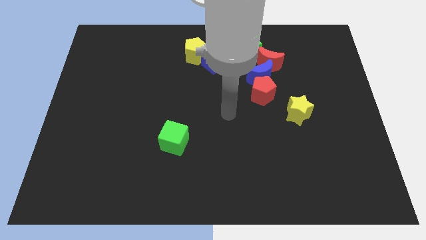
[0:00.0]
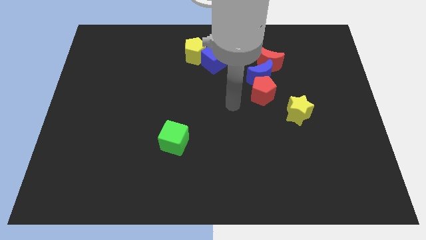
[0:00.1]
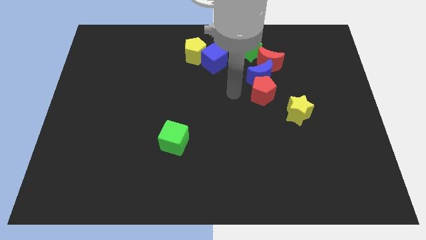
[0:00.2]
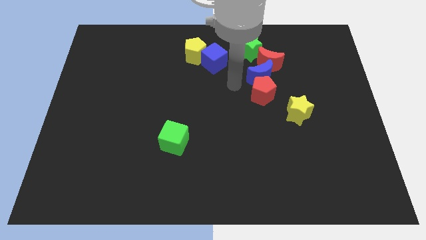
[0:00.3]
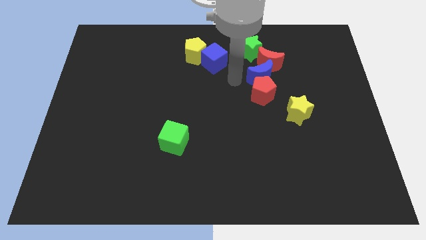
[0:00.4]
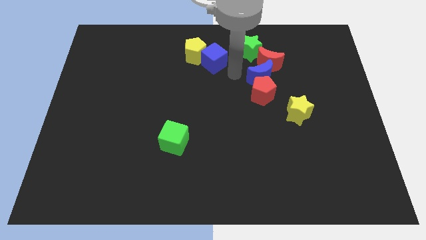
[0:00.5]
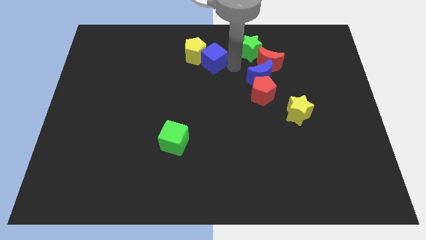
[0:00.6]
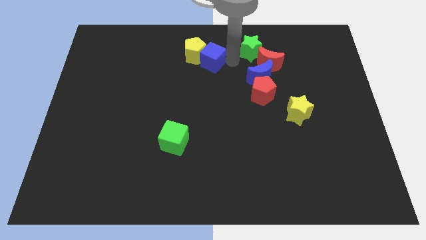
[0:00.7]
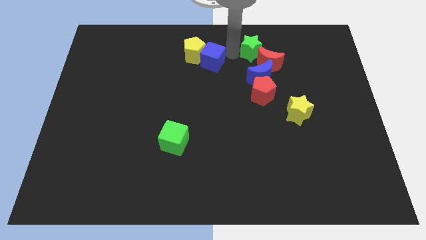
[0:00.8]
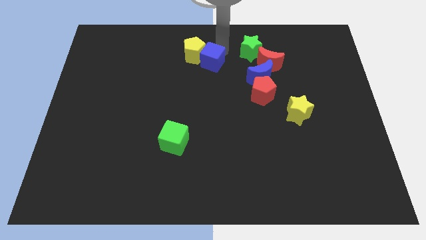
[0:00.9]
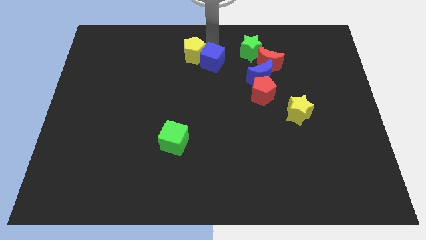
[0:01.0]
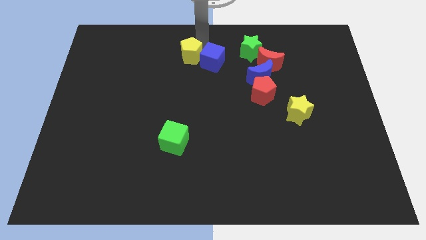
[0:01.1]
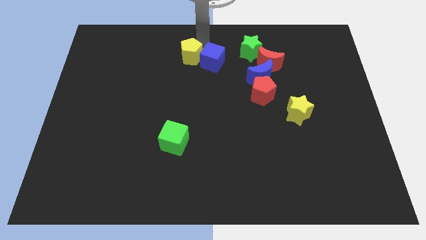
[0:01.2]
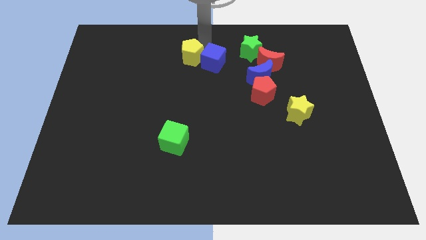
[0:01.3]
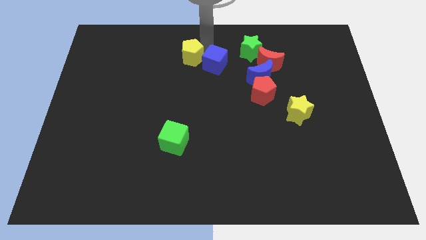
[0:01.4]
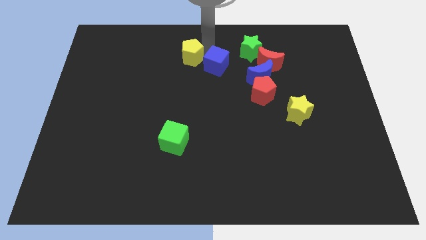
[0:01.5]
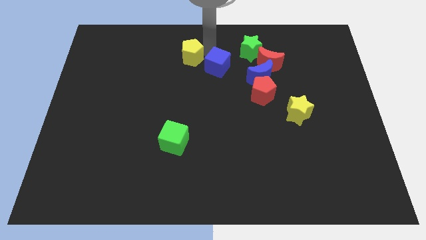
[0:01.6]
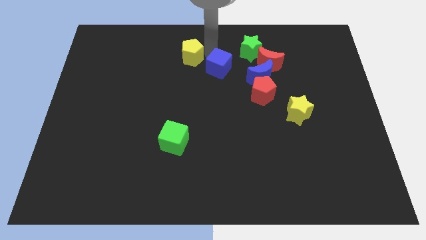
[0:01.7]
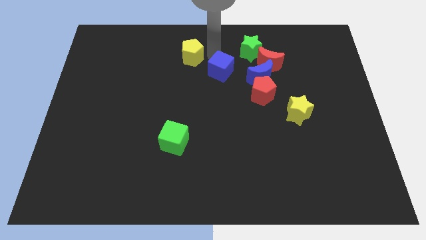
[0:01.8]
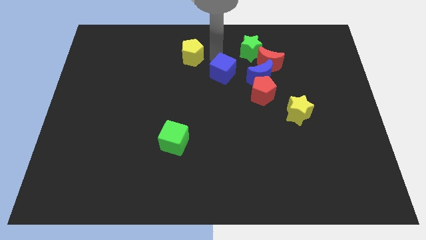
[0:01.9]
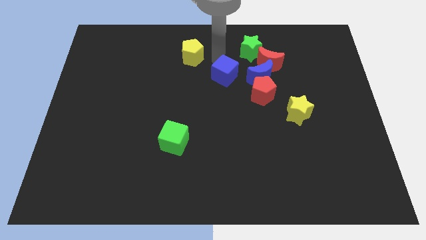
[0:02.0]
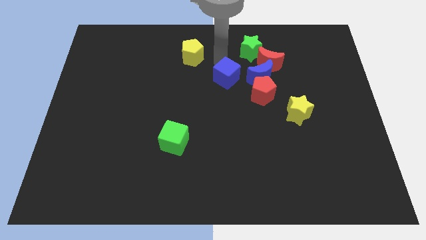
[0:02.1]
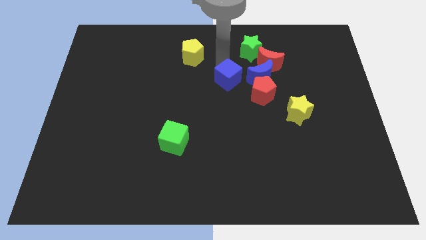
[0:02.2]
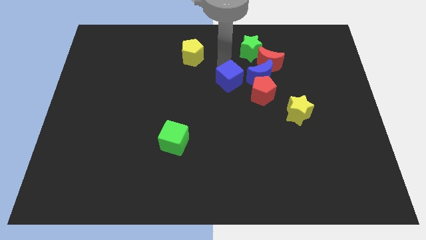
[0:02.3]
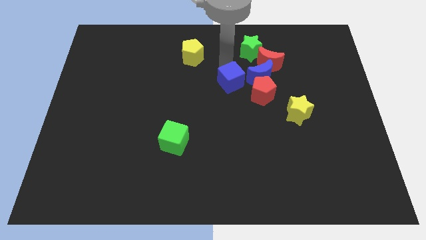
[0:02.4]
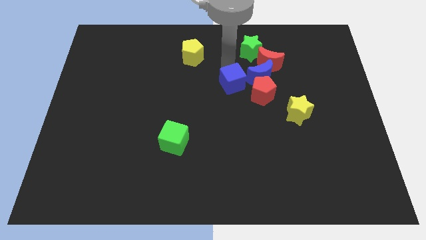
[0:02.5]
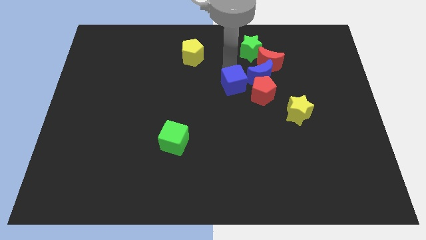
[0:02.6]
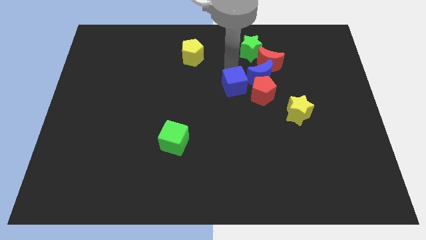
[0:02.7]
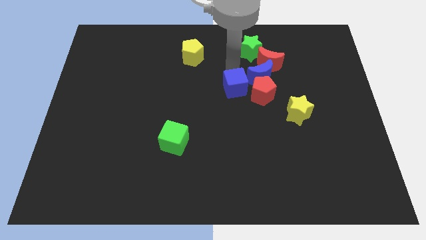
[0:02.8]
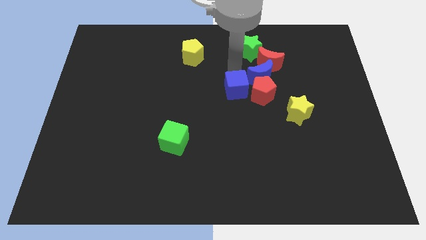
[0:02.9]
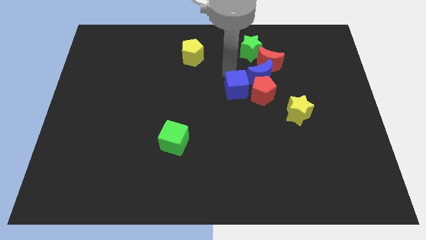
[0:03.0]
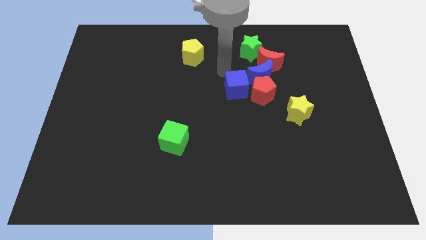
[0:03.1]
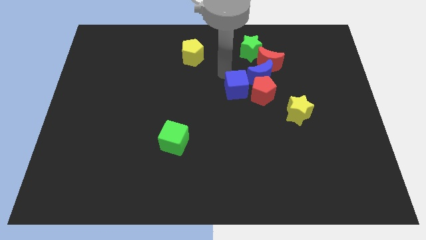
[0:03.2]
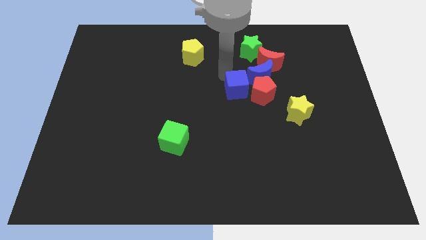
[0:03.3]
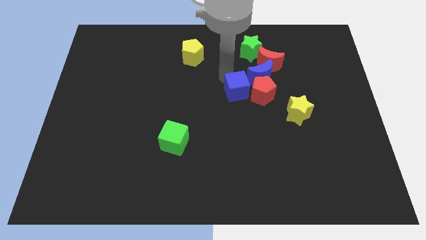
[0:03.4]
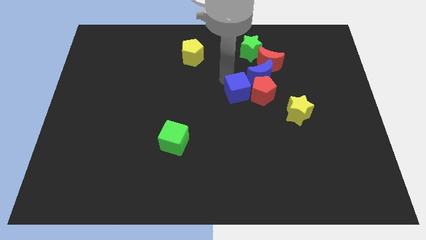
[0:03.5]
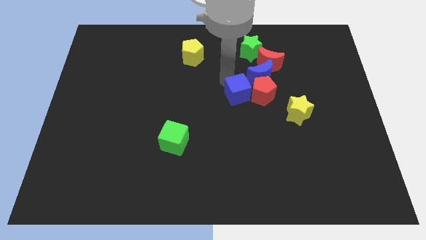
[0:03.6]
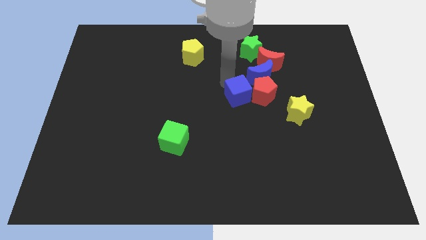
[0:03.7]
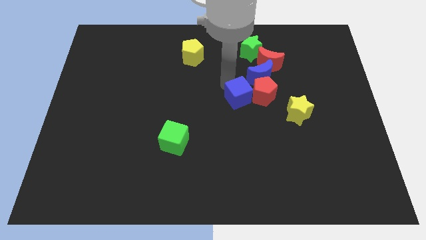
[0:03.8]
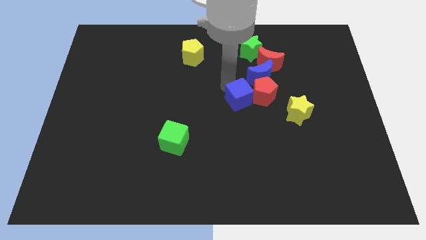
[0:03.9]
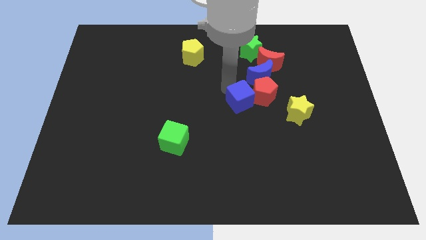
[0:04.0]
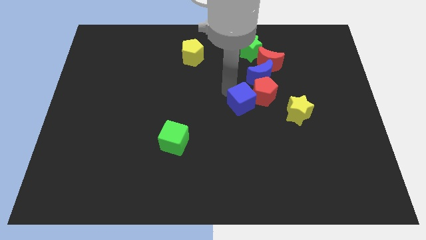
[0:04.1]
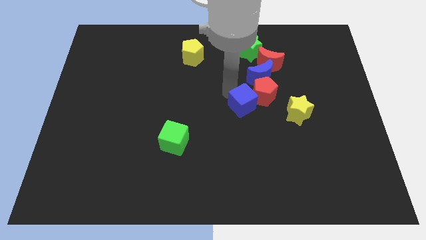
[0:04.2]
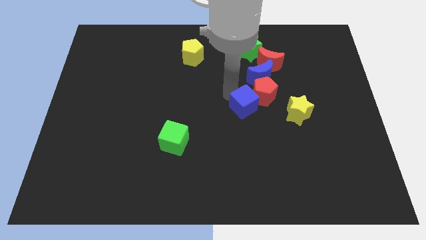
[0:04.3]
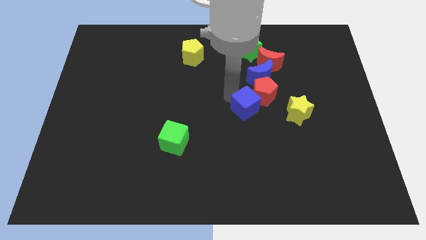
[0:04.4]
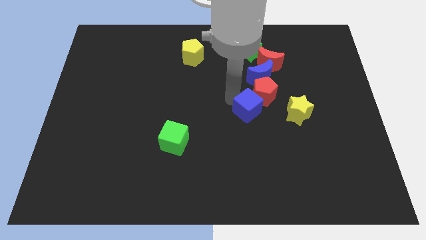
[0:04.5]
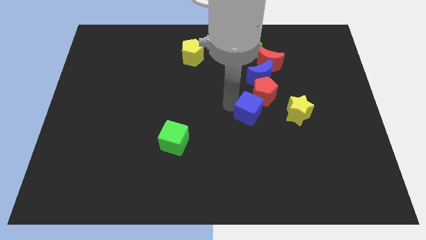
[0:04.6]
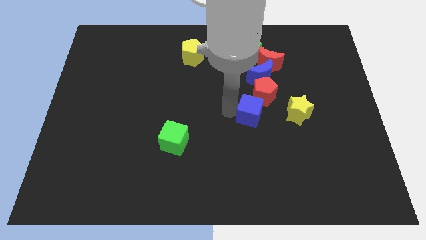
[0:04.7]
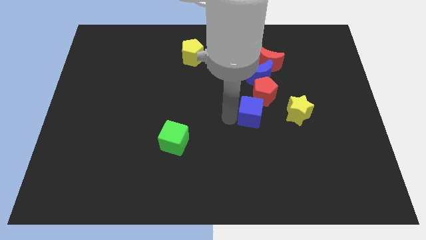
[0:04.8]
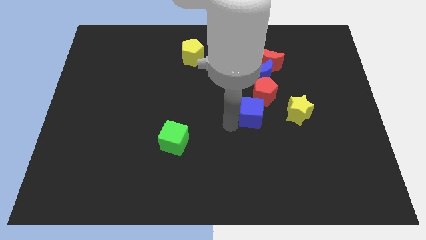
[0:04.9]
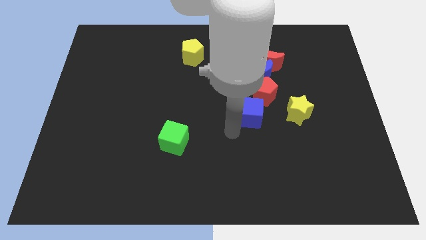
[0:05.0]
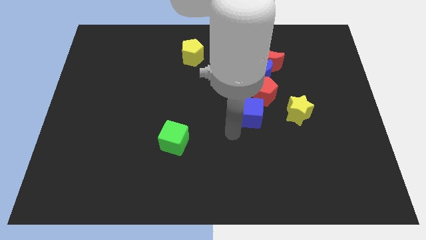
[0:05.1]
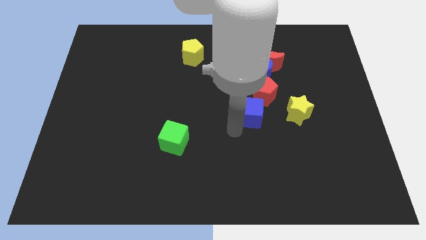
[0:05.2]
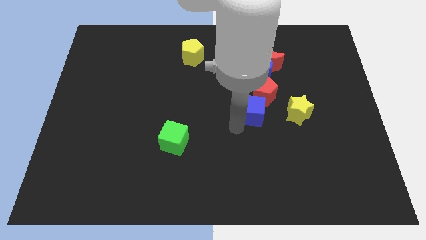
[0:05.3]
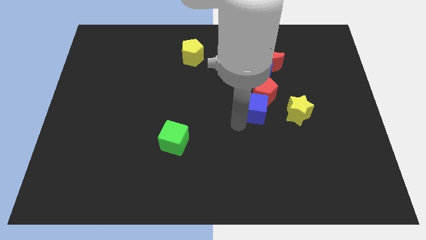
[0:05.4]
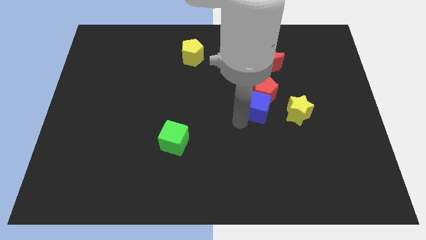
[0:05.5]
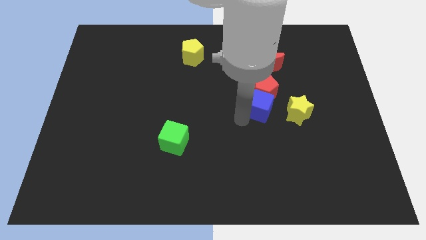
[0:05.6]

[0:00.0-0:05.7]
move the blue cube to the bottom of the red moon

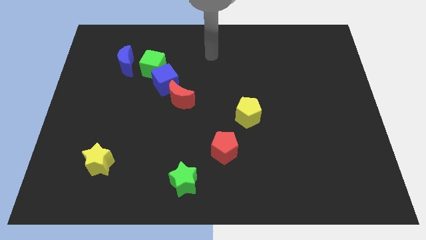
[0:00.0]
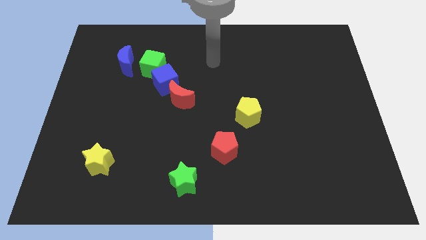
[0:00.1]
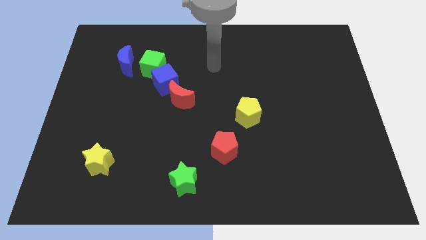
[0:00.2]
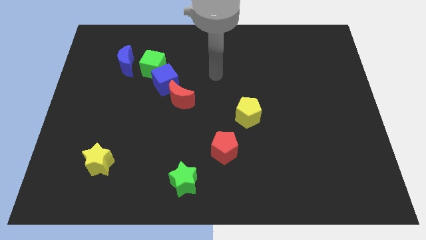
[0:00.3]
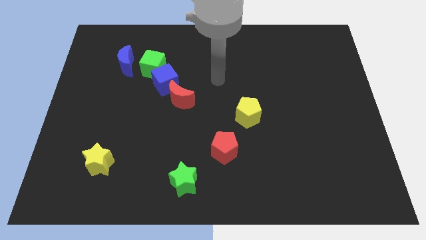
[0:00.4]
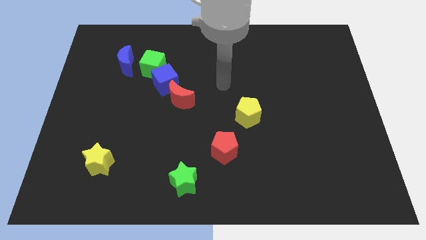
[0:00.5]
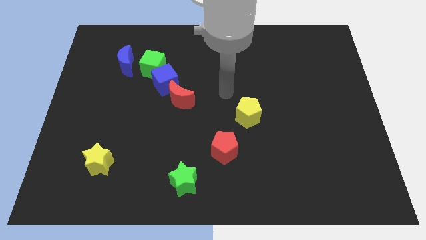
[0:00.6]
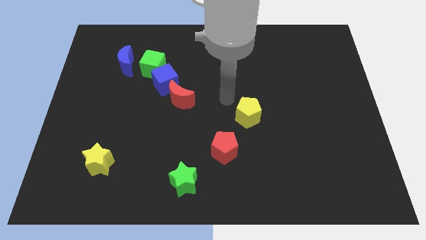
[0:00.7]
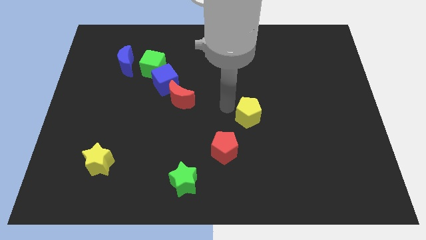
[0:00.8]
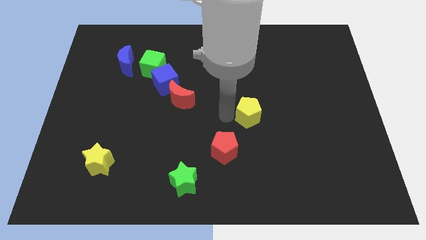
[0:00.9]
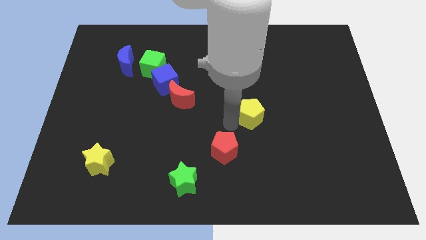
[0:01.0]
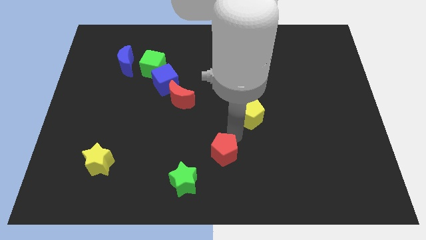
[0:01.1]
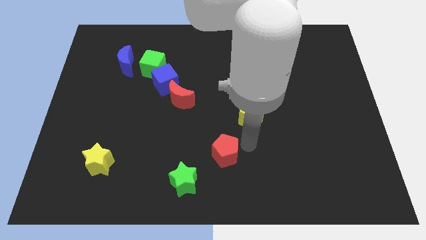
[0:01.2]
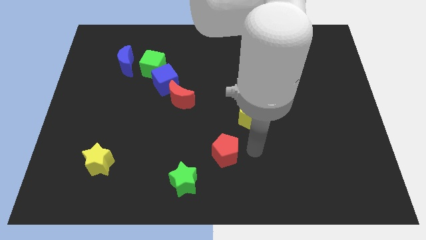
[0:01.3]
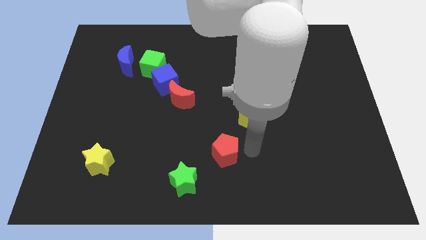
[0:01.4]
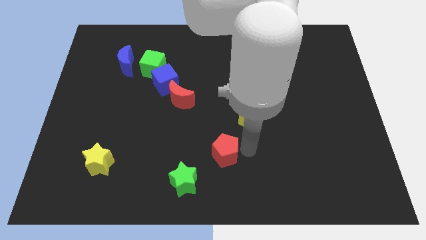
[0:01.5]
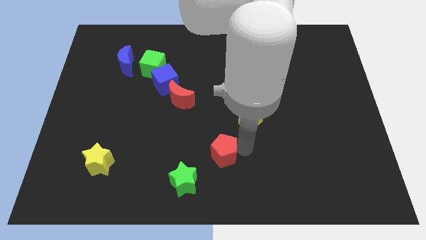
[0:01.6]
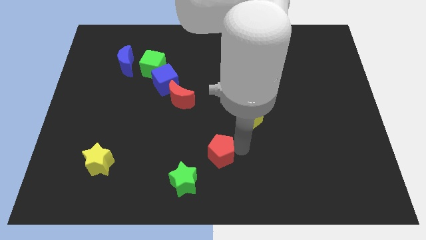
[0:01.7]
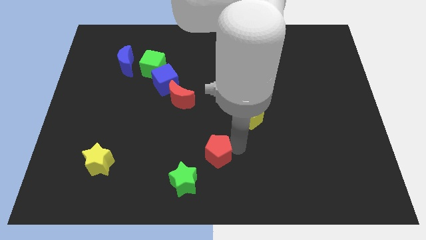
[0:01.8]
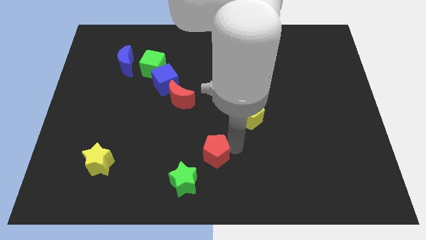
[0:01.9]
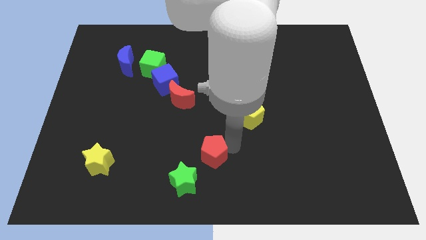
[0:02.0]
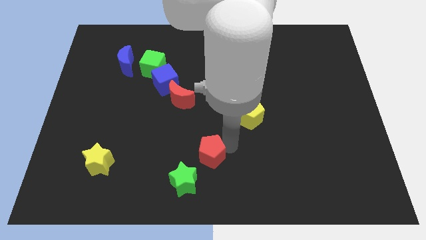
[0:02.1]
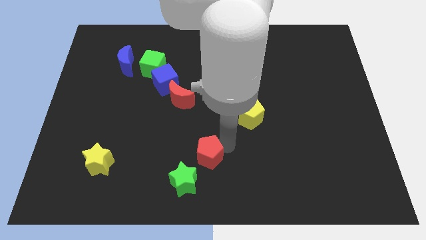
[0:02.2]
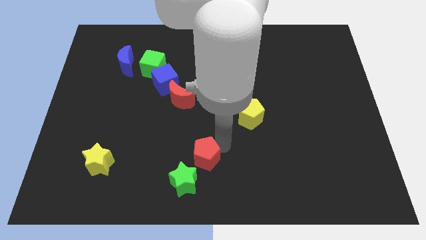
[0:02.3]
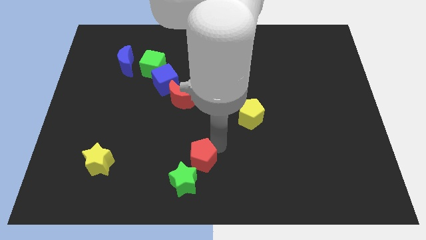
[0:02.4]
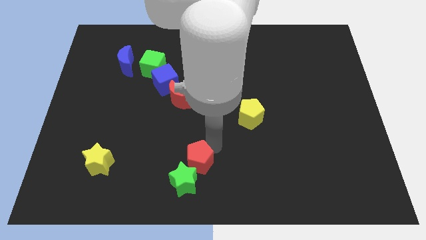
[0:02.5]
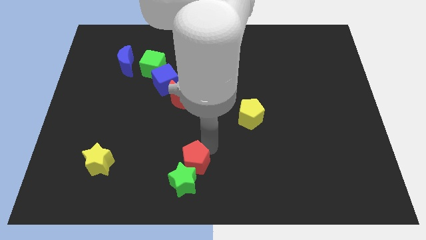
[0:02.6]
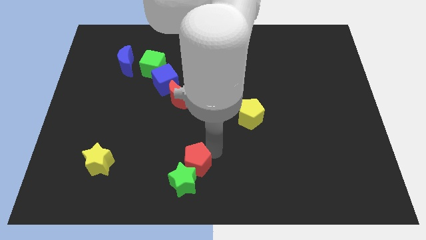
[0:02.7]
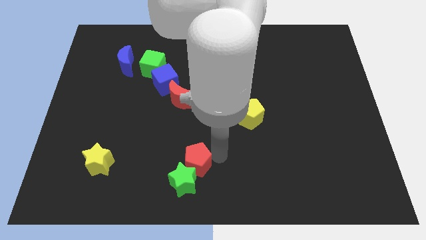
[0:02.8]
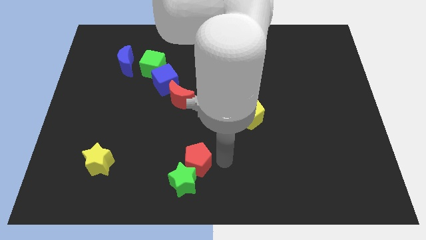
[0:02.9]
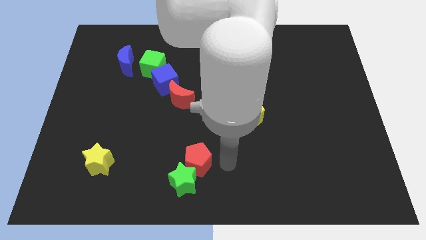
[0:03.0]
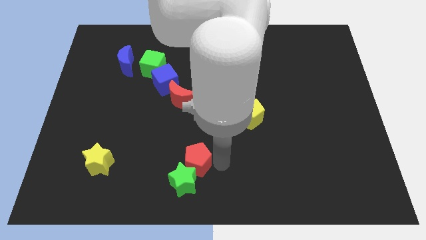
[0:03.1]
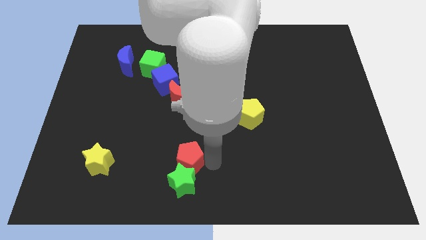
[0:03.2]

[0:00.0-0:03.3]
push the red pentagon diagonally up and to the left of the green star
